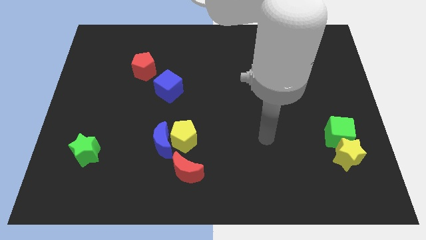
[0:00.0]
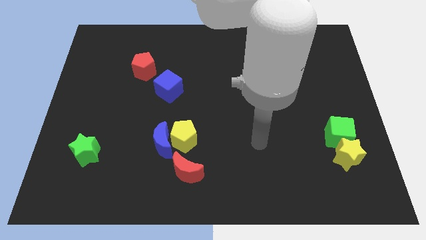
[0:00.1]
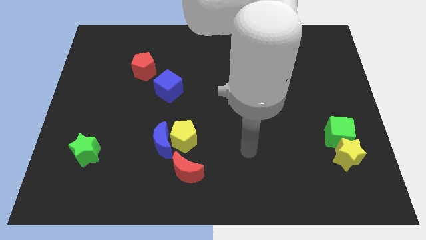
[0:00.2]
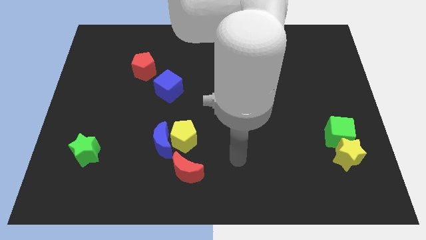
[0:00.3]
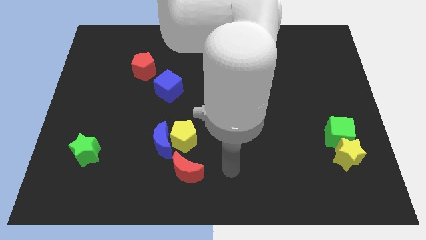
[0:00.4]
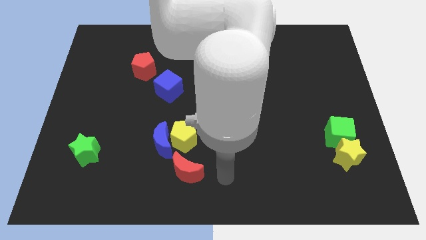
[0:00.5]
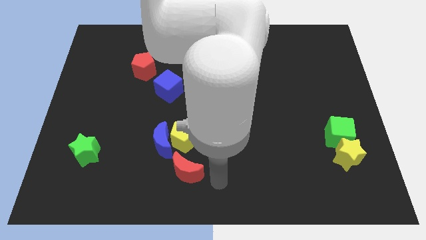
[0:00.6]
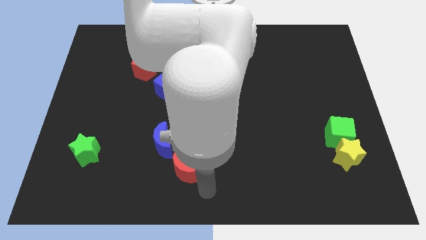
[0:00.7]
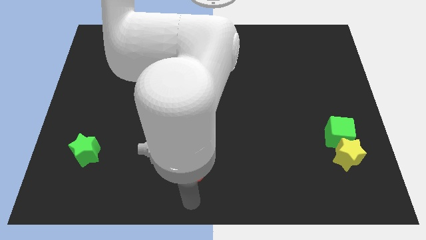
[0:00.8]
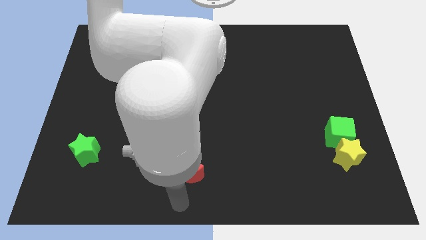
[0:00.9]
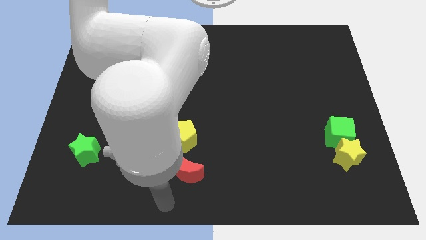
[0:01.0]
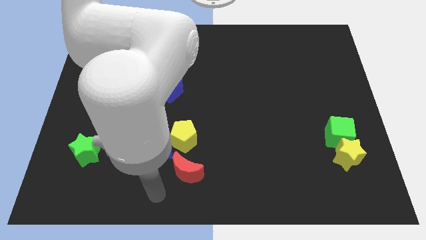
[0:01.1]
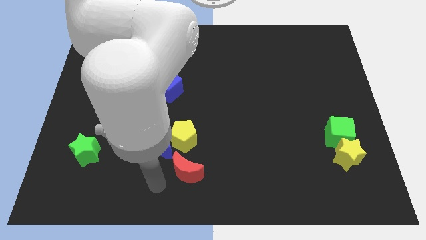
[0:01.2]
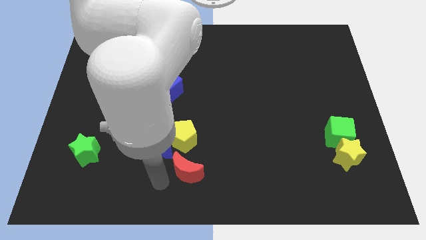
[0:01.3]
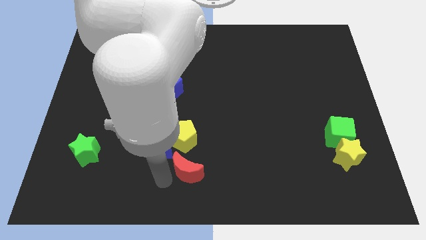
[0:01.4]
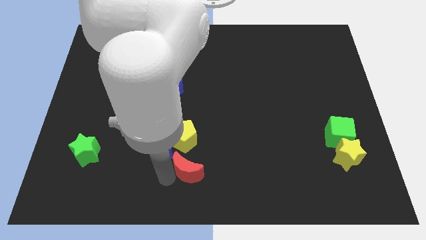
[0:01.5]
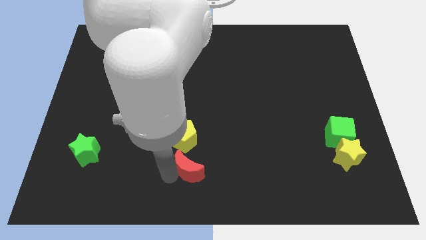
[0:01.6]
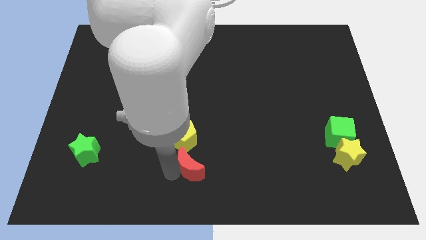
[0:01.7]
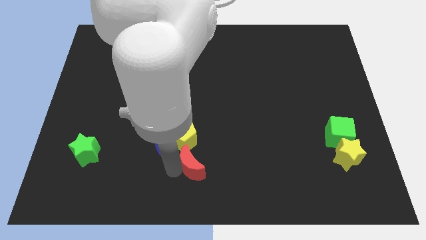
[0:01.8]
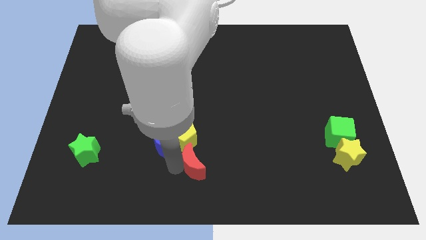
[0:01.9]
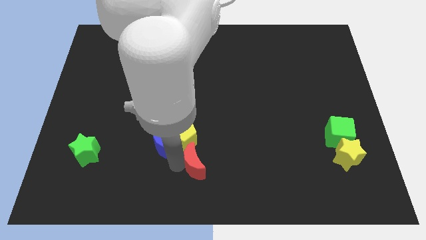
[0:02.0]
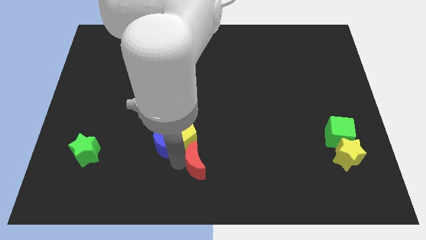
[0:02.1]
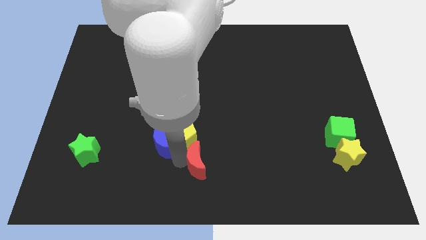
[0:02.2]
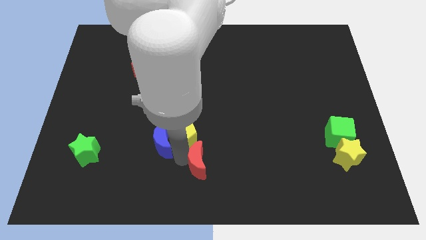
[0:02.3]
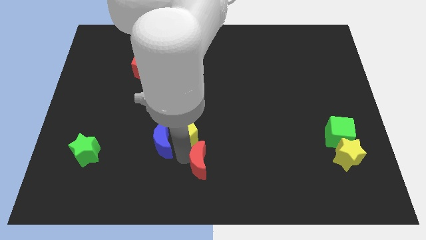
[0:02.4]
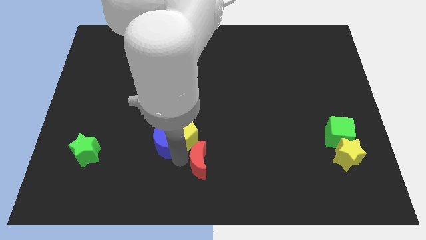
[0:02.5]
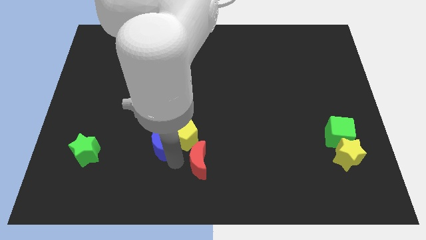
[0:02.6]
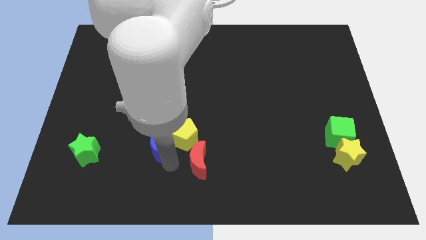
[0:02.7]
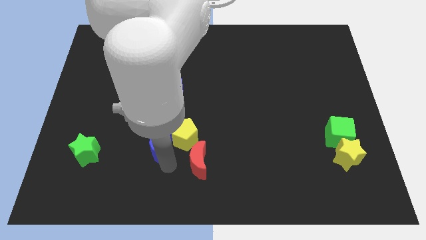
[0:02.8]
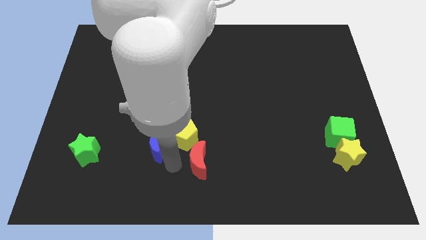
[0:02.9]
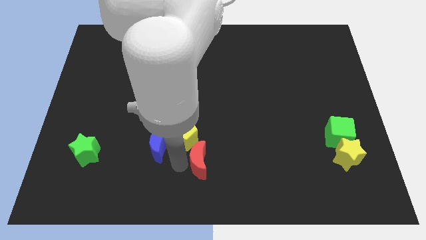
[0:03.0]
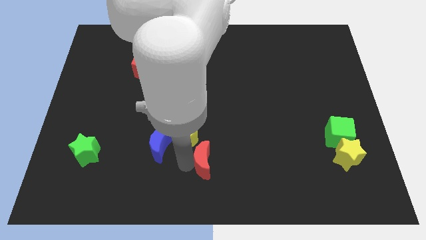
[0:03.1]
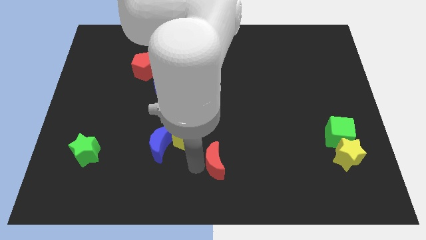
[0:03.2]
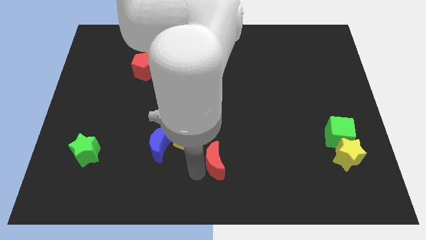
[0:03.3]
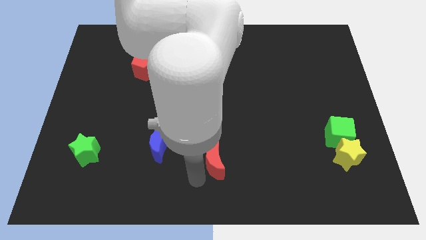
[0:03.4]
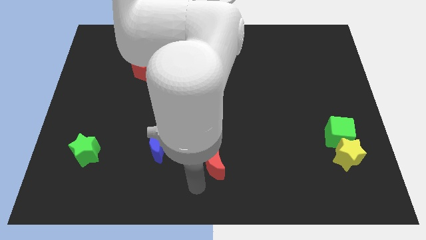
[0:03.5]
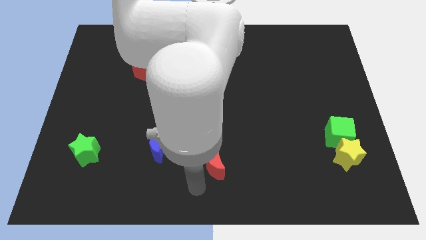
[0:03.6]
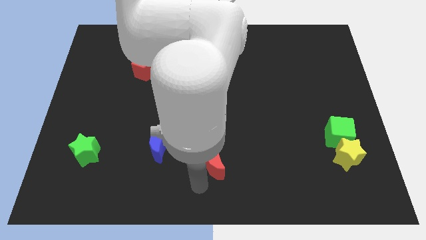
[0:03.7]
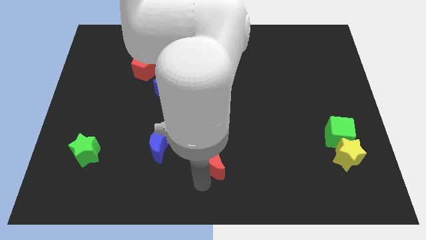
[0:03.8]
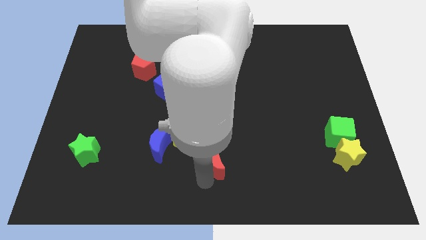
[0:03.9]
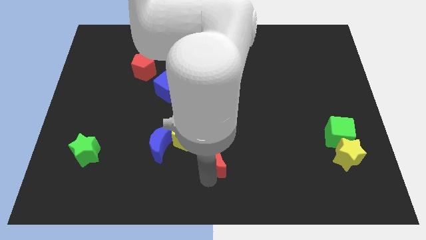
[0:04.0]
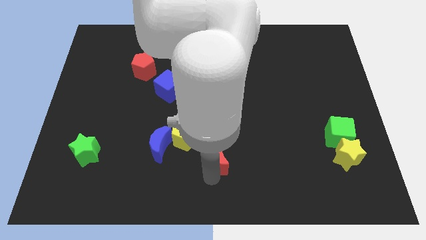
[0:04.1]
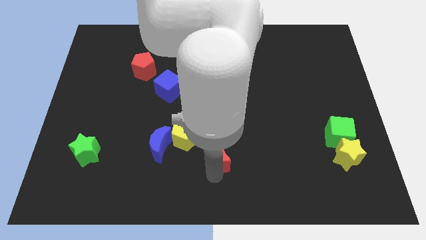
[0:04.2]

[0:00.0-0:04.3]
slightly move the red moon up and then right

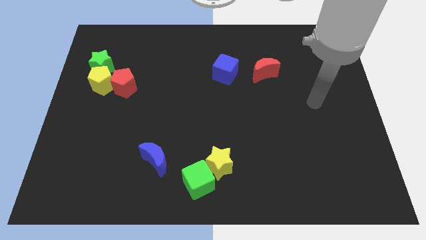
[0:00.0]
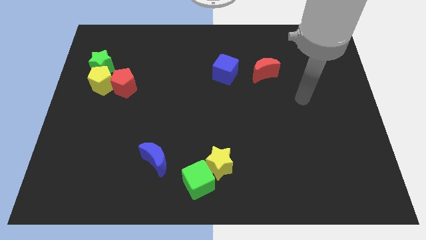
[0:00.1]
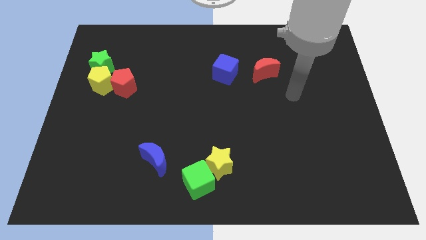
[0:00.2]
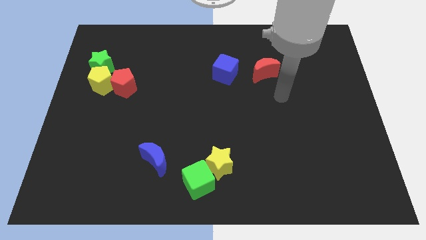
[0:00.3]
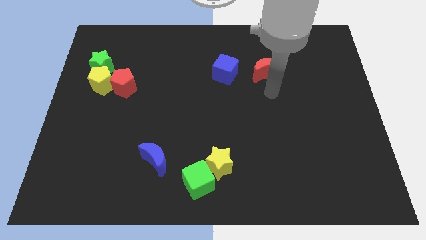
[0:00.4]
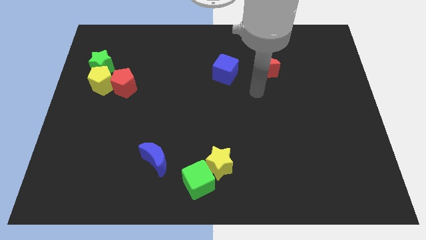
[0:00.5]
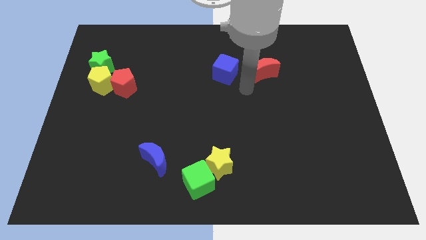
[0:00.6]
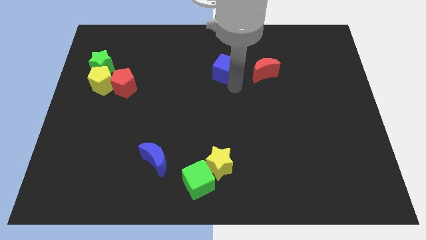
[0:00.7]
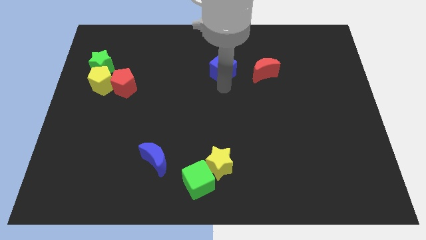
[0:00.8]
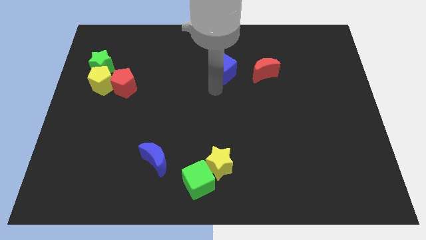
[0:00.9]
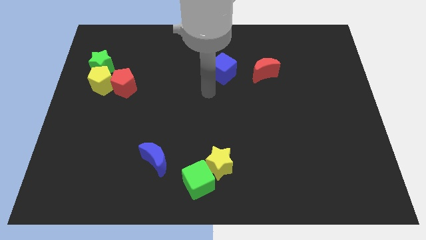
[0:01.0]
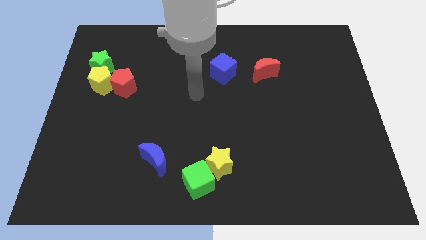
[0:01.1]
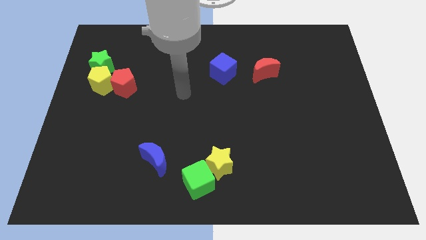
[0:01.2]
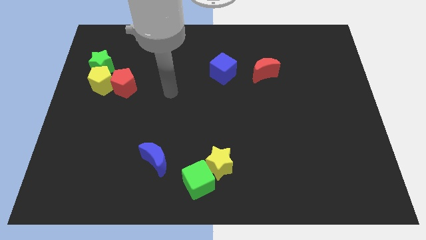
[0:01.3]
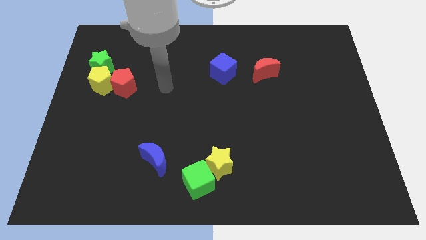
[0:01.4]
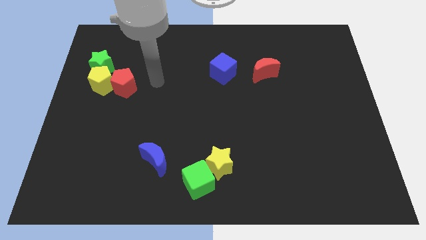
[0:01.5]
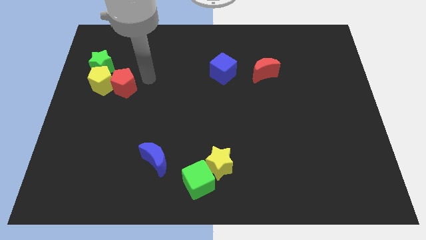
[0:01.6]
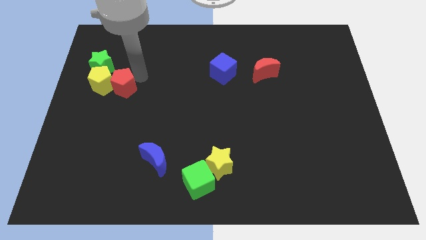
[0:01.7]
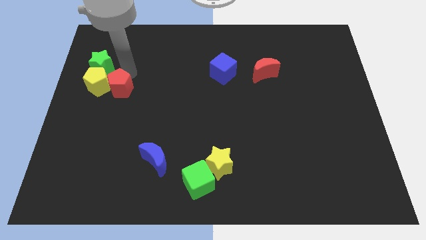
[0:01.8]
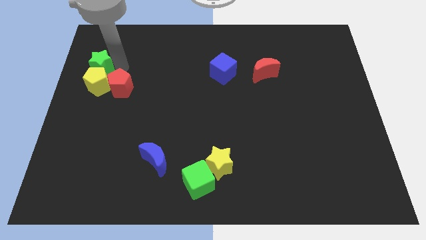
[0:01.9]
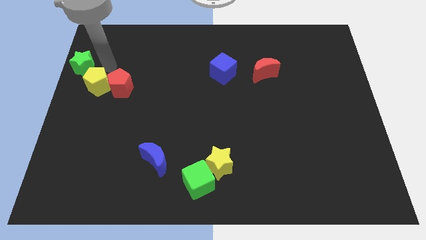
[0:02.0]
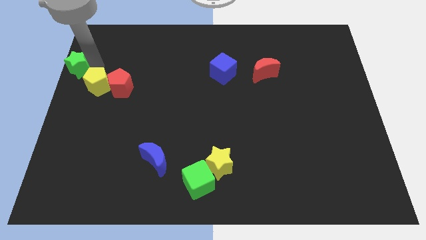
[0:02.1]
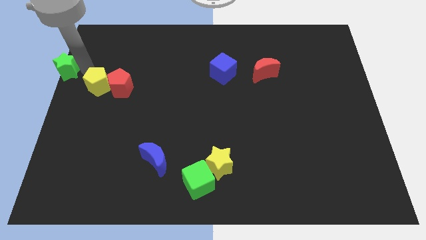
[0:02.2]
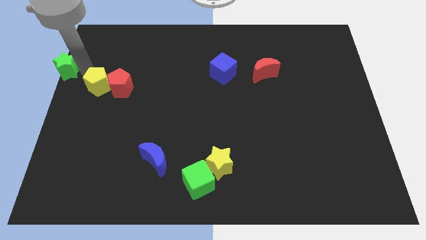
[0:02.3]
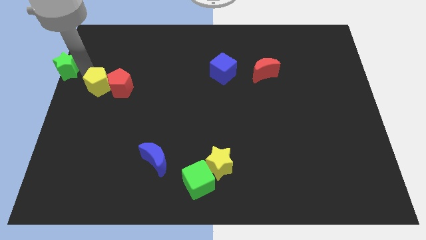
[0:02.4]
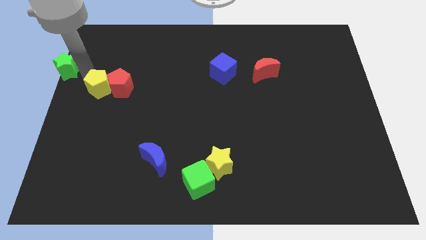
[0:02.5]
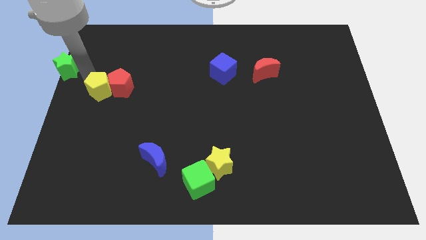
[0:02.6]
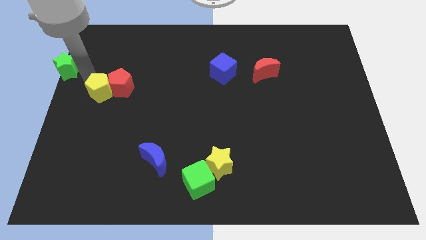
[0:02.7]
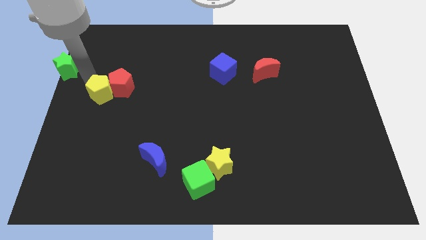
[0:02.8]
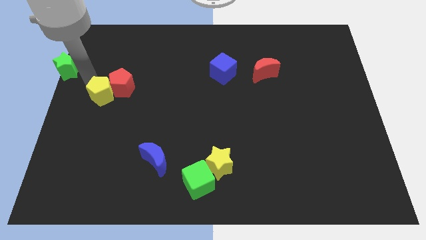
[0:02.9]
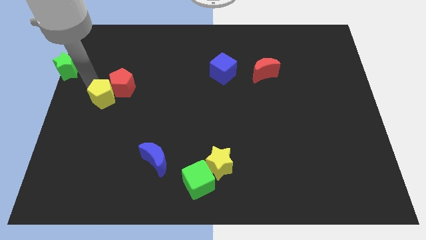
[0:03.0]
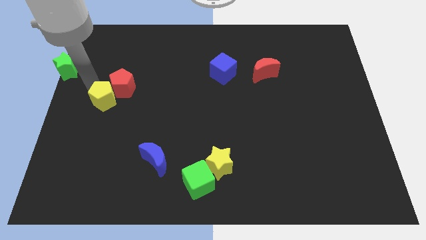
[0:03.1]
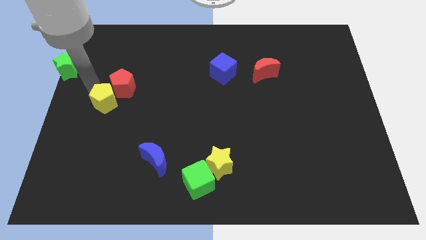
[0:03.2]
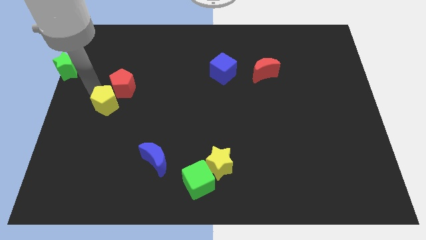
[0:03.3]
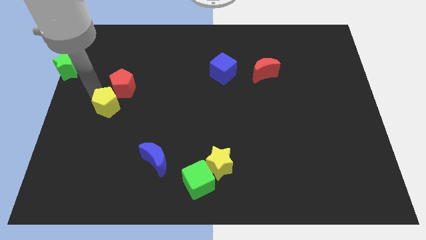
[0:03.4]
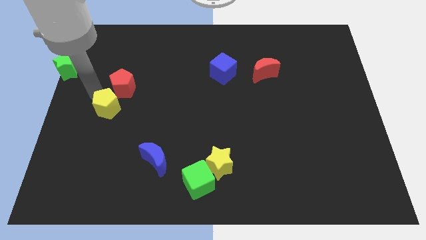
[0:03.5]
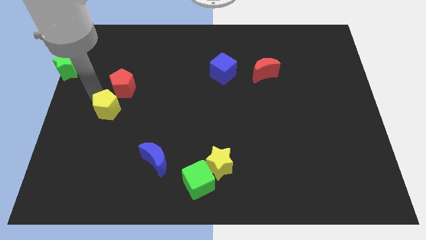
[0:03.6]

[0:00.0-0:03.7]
push the yellow pentagon down and right a little bit

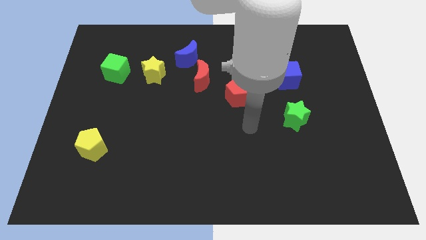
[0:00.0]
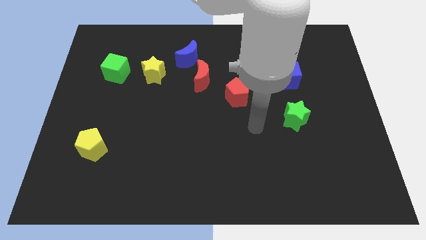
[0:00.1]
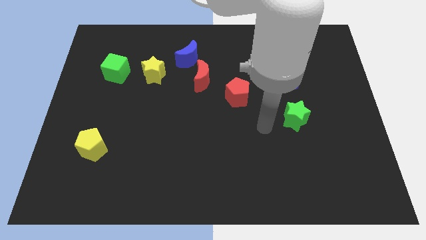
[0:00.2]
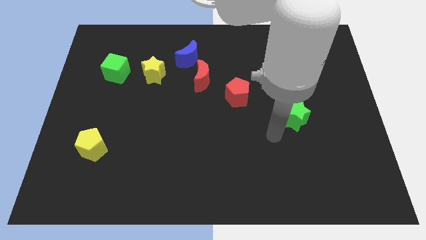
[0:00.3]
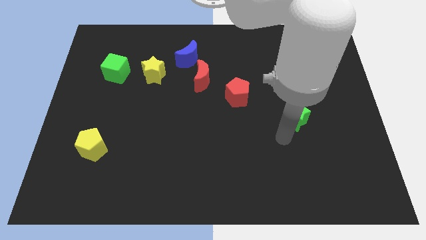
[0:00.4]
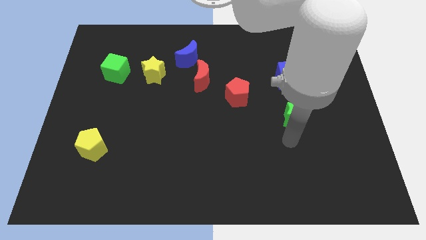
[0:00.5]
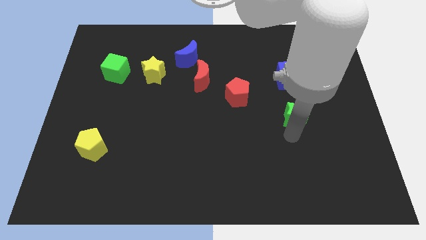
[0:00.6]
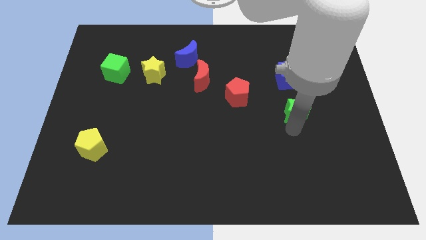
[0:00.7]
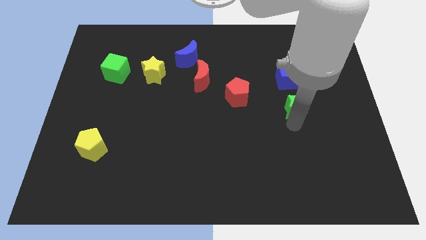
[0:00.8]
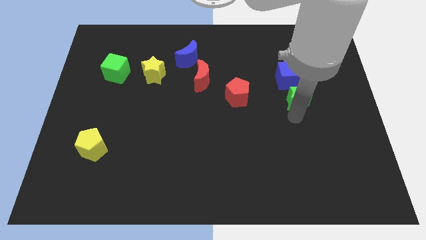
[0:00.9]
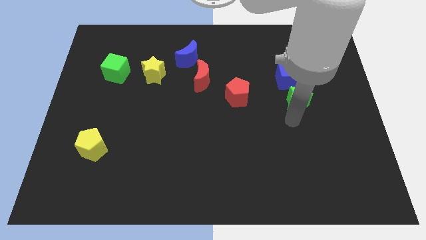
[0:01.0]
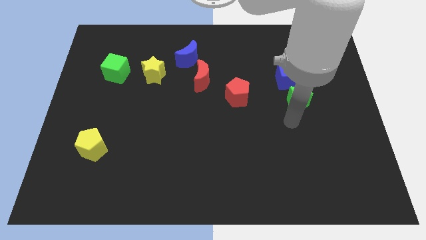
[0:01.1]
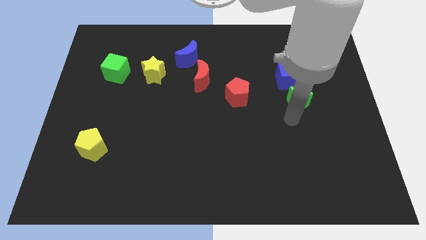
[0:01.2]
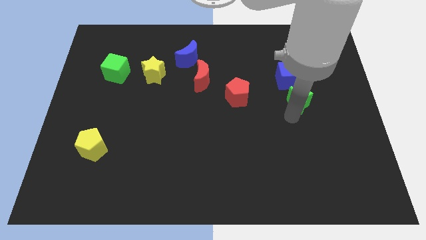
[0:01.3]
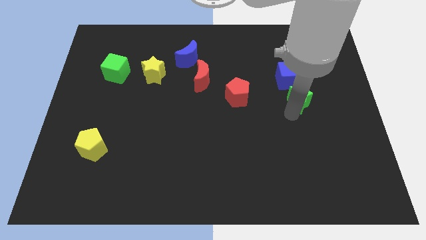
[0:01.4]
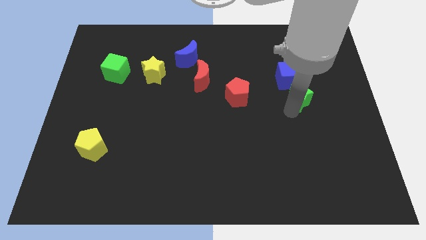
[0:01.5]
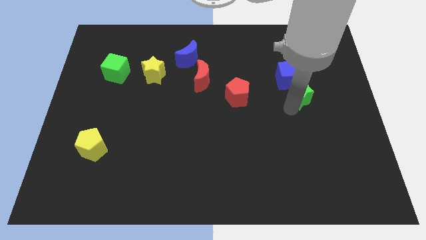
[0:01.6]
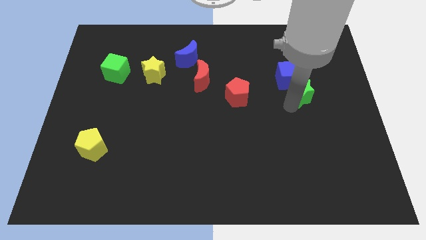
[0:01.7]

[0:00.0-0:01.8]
slightly push the green star up
